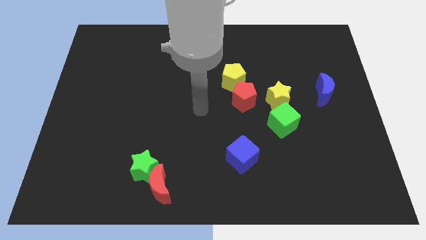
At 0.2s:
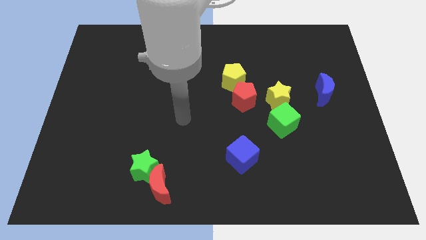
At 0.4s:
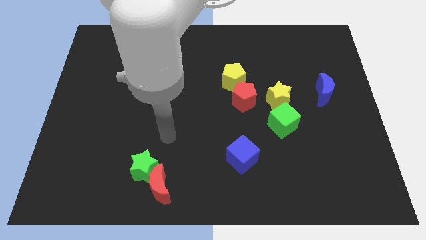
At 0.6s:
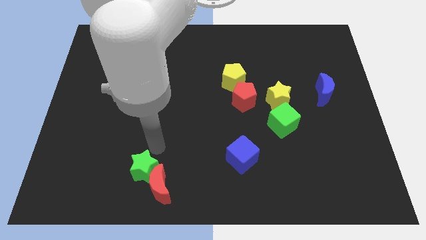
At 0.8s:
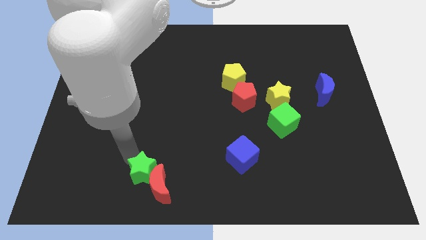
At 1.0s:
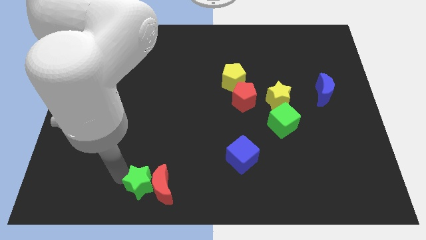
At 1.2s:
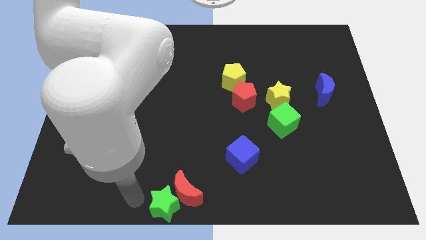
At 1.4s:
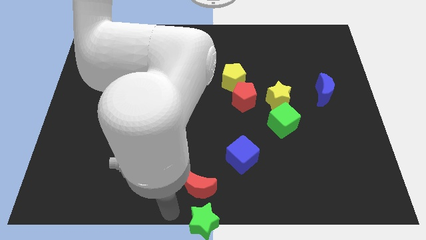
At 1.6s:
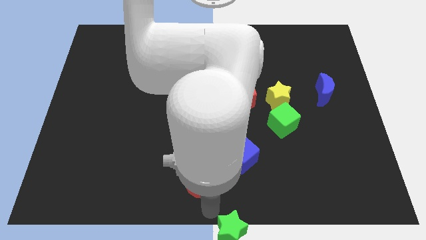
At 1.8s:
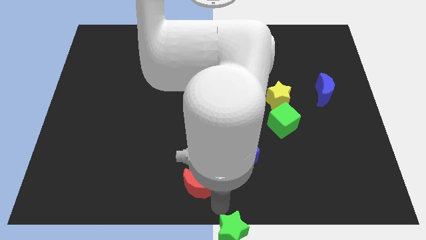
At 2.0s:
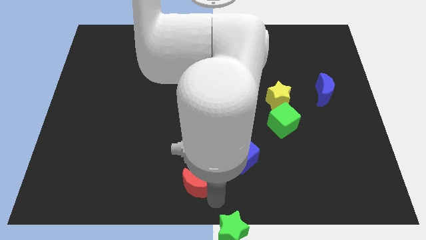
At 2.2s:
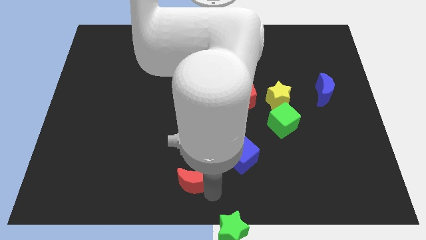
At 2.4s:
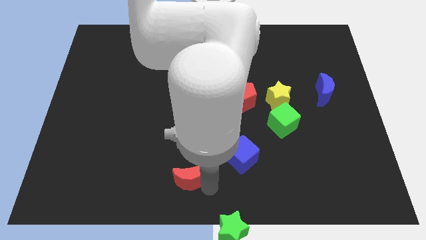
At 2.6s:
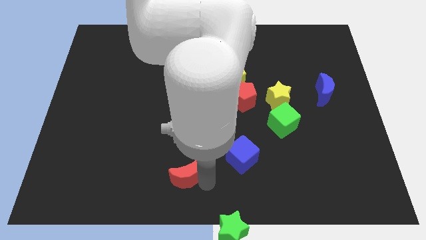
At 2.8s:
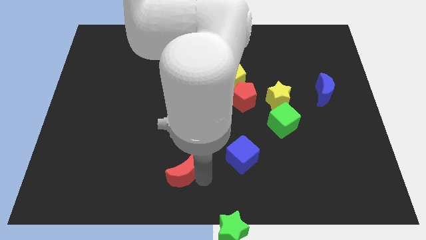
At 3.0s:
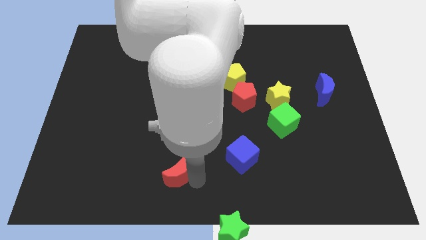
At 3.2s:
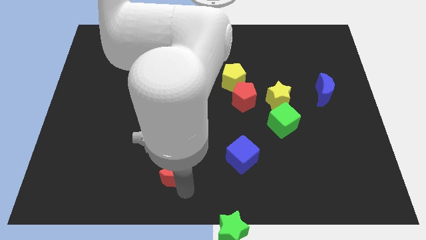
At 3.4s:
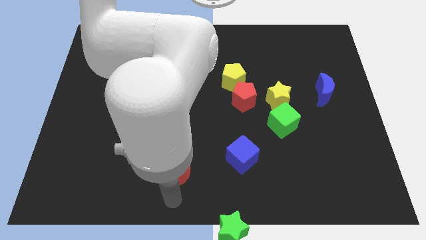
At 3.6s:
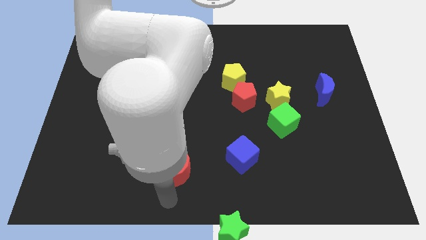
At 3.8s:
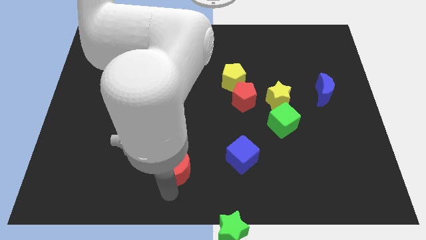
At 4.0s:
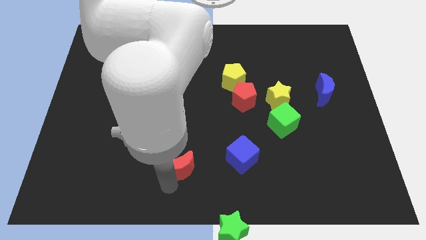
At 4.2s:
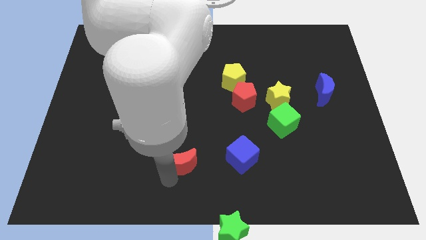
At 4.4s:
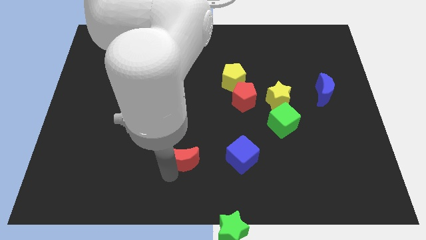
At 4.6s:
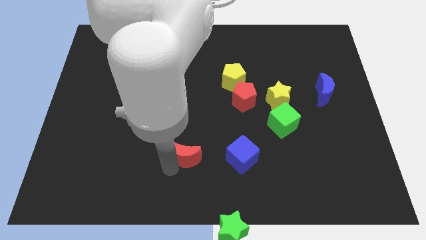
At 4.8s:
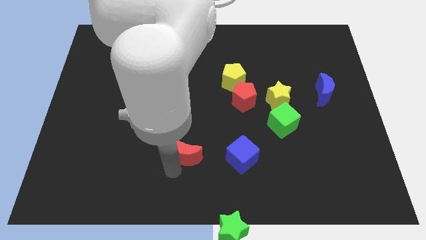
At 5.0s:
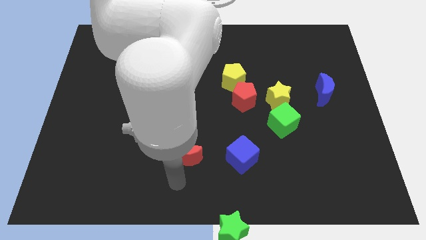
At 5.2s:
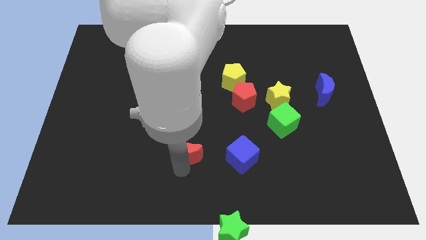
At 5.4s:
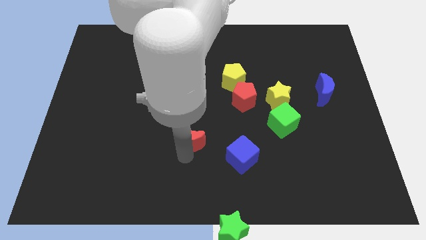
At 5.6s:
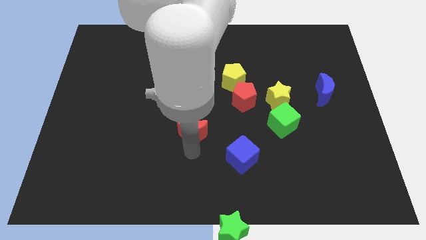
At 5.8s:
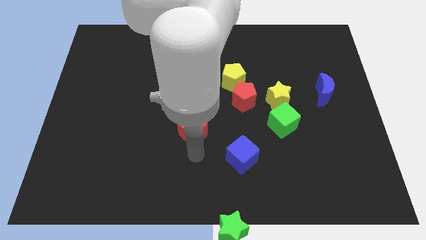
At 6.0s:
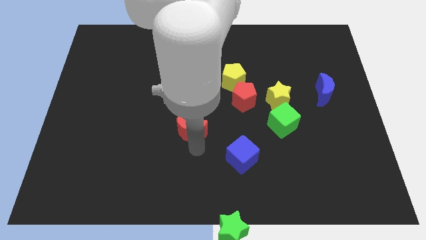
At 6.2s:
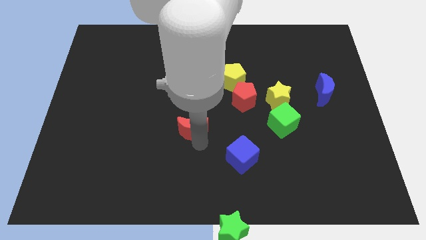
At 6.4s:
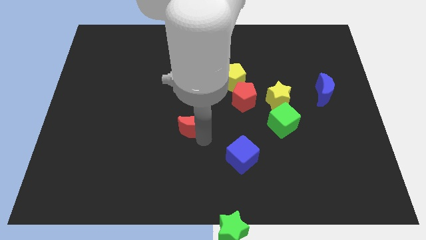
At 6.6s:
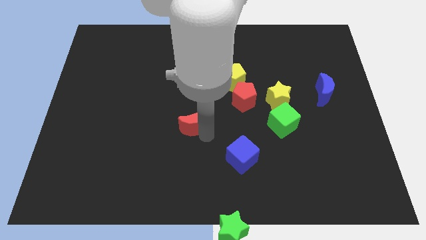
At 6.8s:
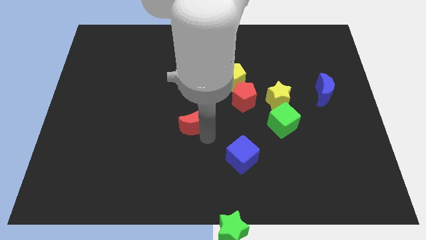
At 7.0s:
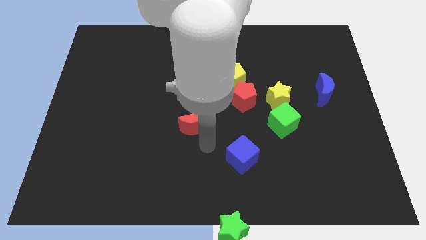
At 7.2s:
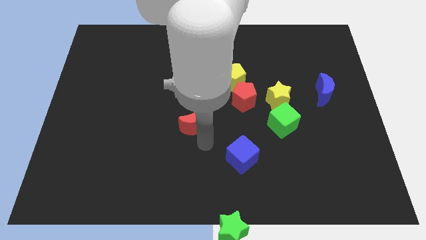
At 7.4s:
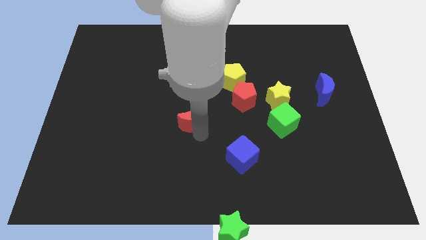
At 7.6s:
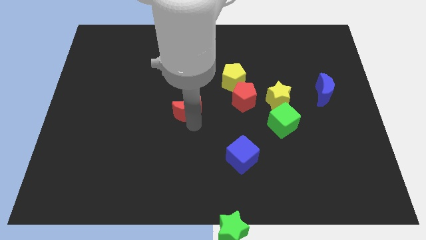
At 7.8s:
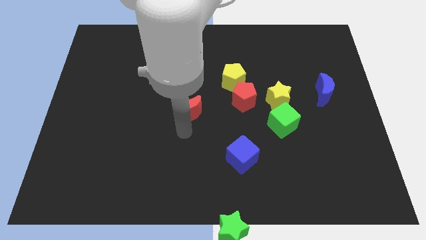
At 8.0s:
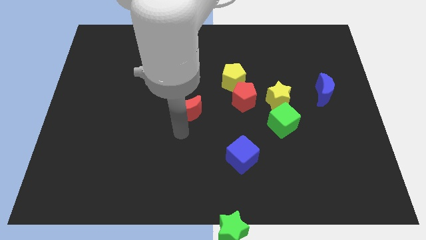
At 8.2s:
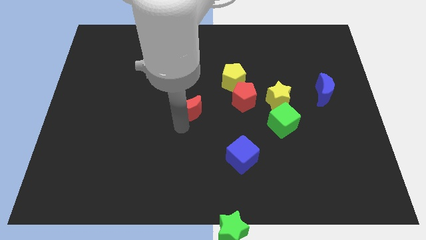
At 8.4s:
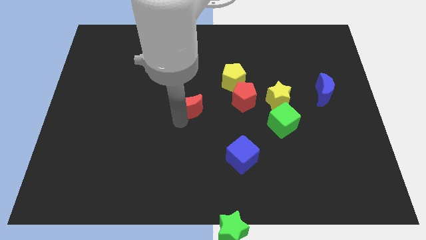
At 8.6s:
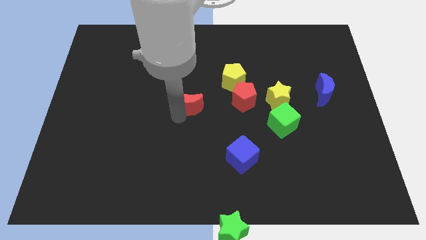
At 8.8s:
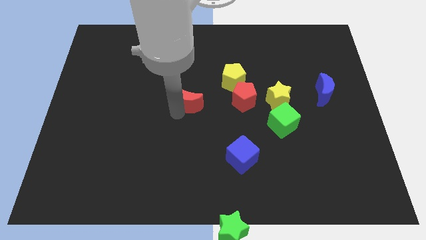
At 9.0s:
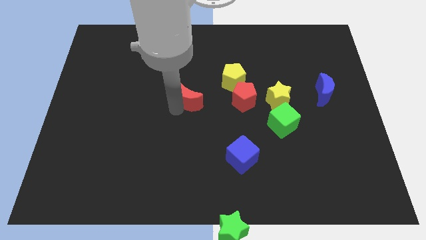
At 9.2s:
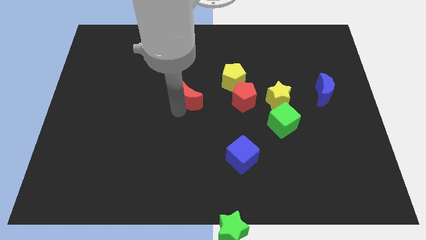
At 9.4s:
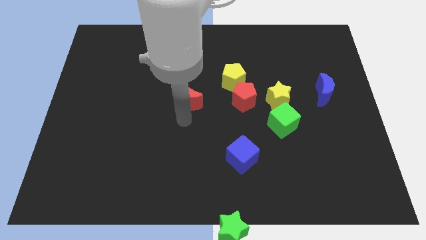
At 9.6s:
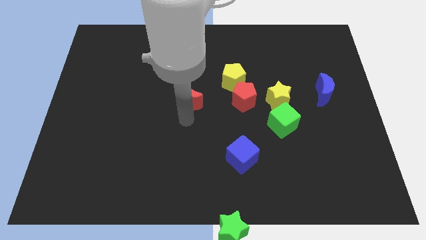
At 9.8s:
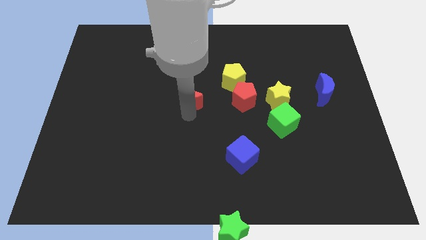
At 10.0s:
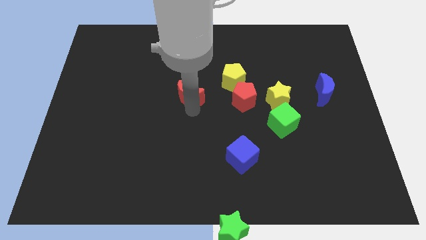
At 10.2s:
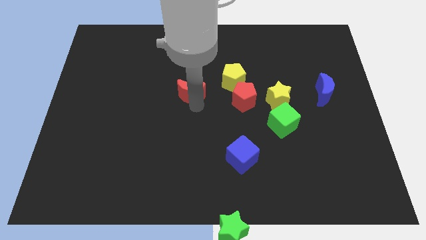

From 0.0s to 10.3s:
push the red moon to the left side of the yellow pentagon

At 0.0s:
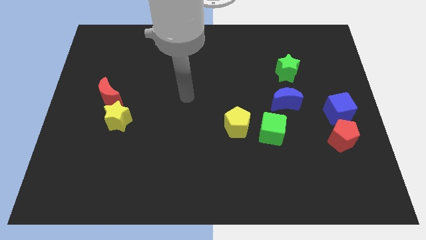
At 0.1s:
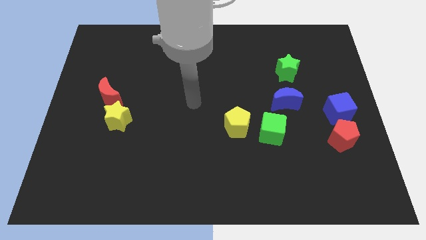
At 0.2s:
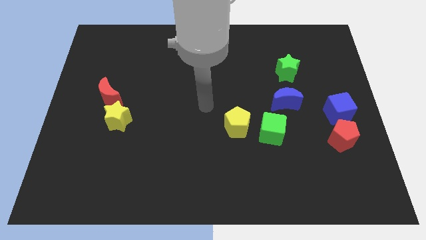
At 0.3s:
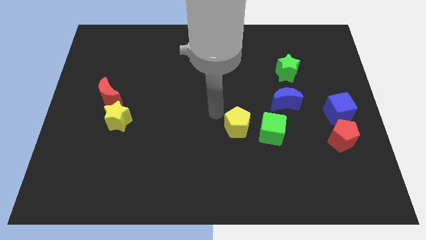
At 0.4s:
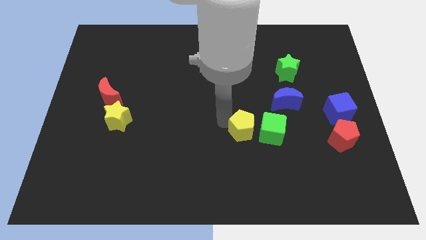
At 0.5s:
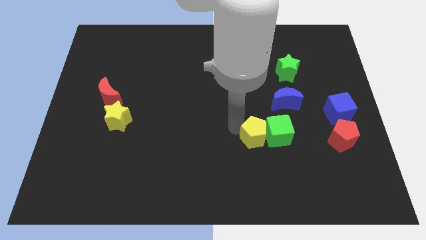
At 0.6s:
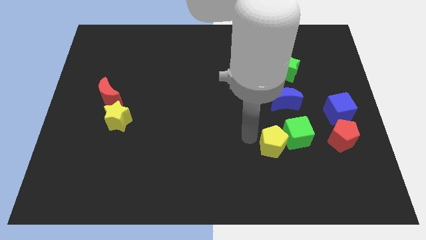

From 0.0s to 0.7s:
slide the green cube diagonally down and to the left of the blue cube
